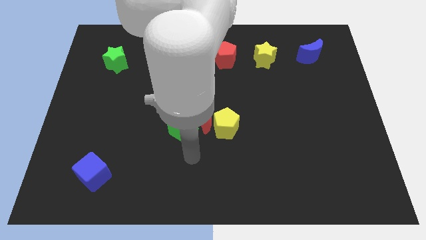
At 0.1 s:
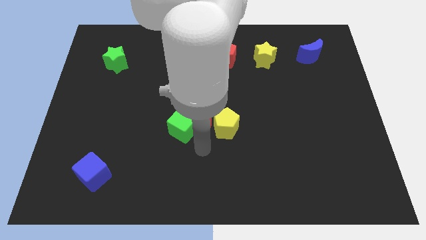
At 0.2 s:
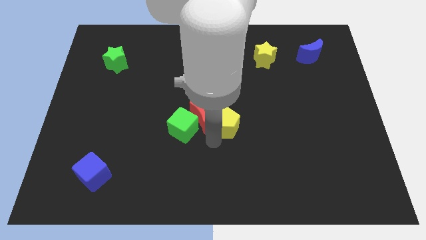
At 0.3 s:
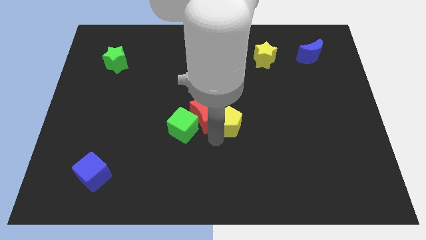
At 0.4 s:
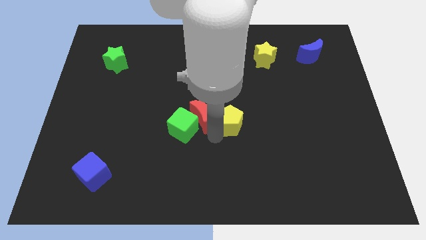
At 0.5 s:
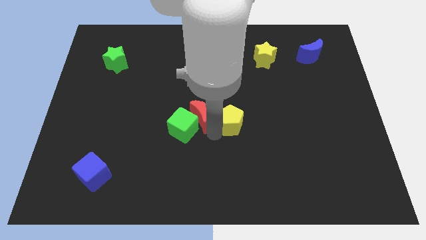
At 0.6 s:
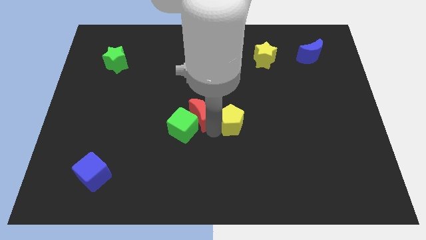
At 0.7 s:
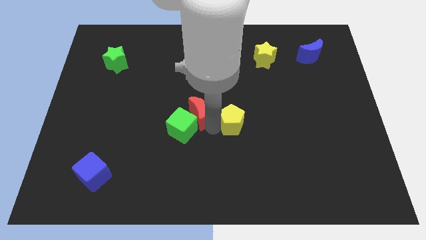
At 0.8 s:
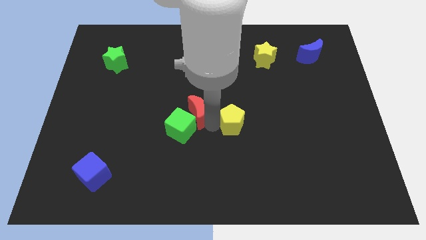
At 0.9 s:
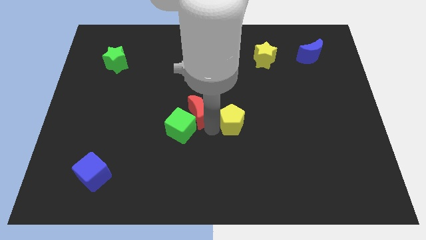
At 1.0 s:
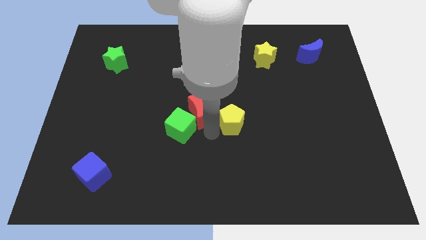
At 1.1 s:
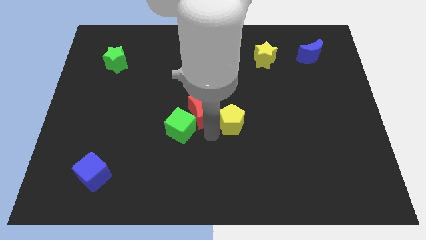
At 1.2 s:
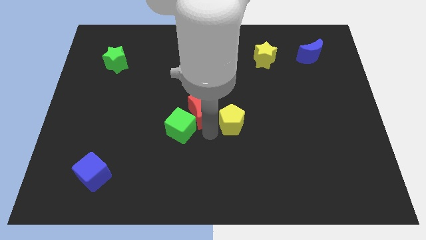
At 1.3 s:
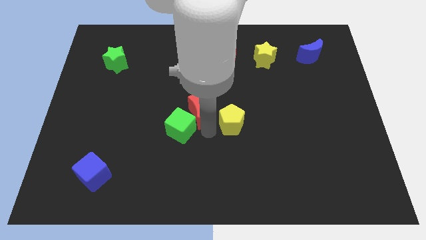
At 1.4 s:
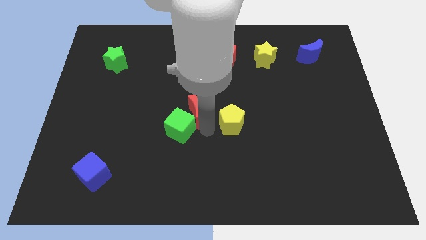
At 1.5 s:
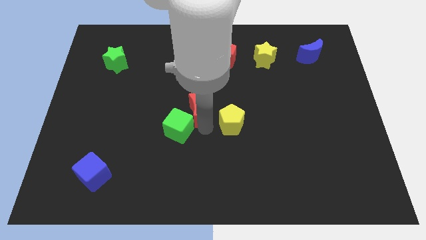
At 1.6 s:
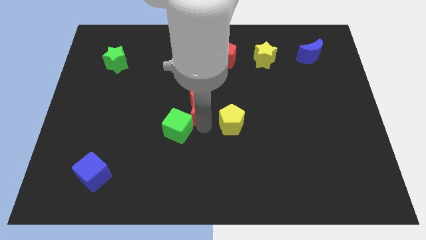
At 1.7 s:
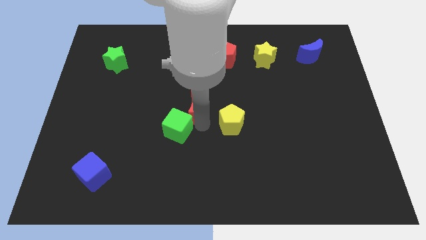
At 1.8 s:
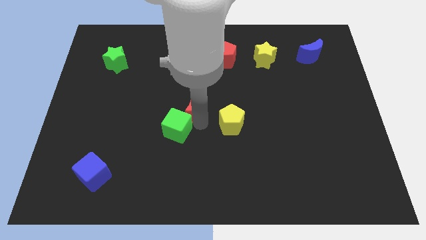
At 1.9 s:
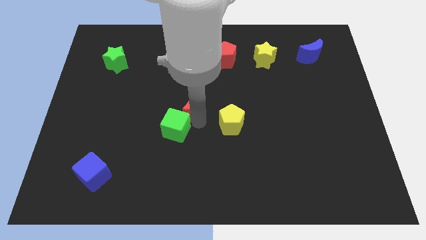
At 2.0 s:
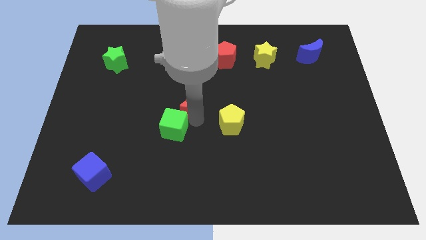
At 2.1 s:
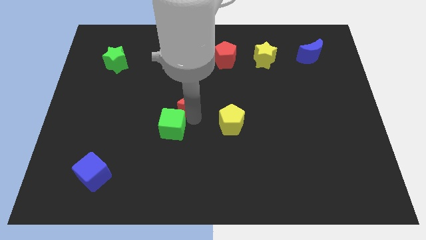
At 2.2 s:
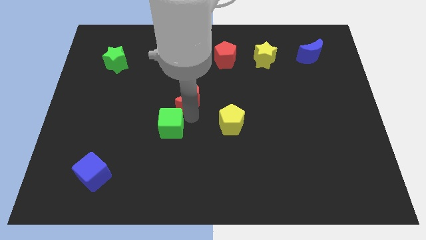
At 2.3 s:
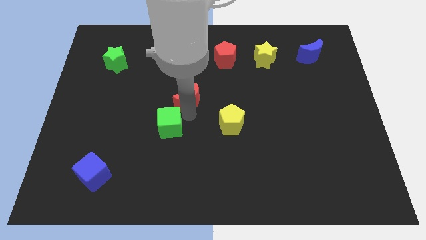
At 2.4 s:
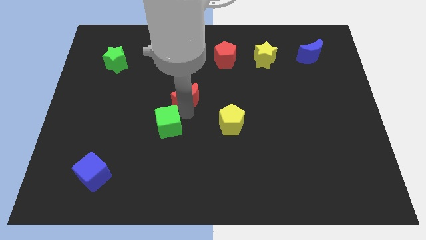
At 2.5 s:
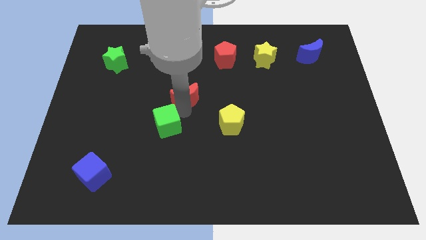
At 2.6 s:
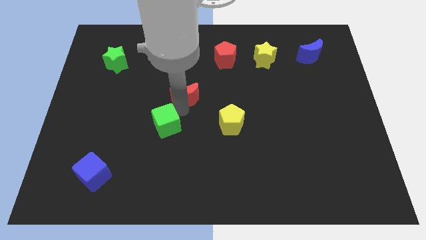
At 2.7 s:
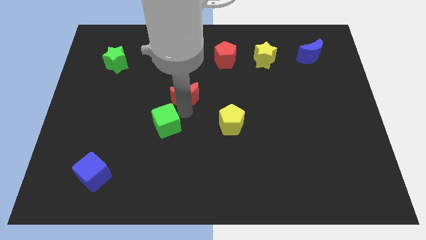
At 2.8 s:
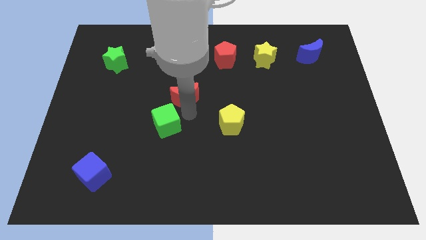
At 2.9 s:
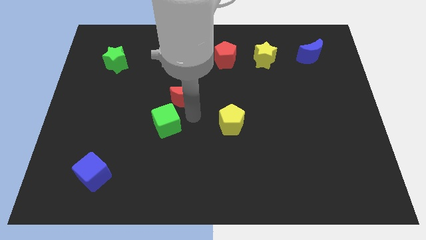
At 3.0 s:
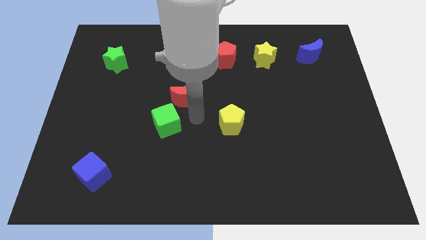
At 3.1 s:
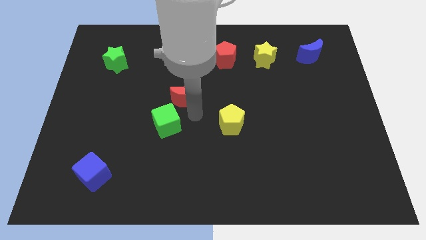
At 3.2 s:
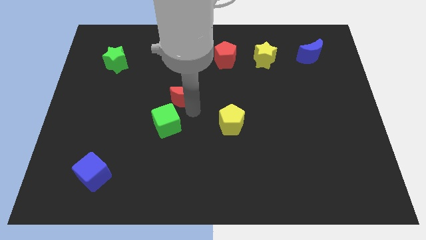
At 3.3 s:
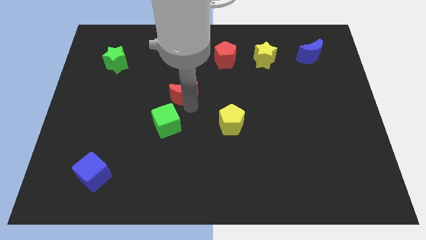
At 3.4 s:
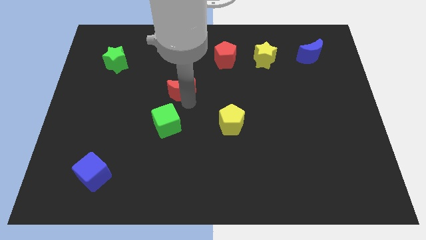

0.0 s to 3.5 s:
move the red moon away from the green cube and yellow pentagon

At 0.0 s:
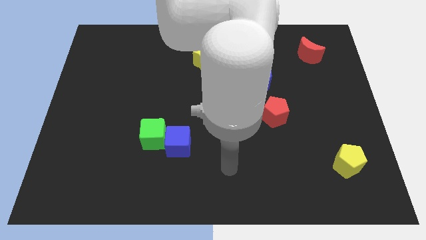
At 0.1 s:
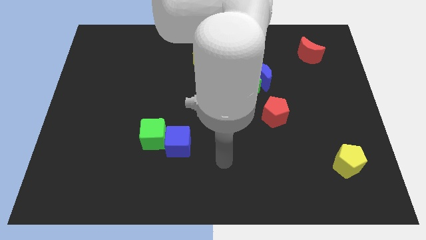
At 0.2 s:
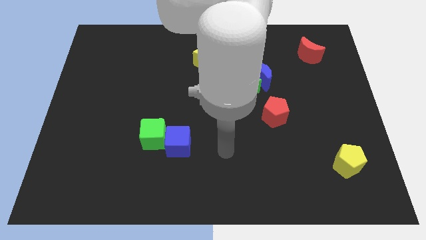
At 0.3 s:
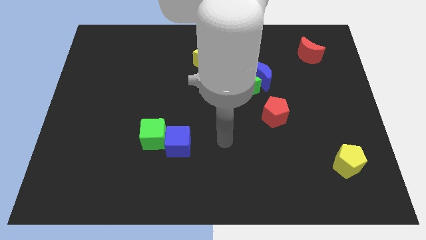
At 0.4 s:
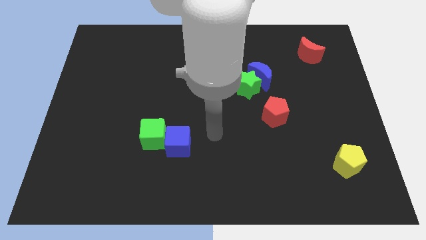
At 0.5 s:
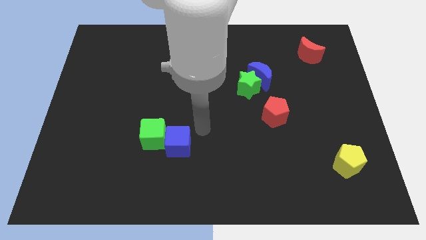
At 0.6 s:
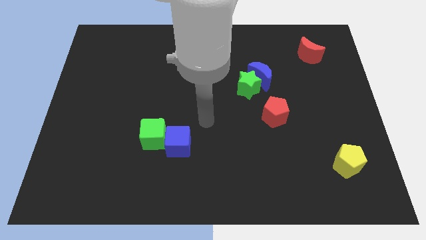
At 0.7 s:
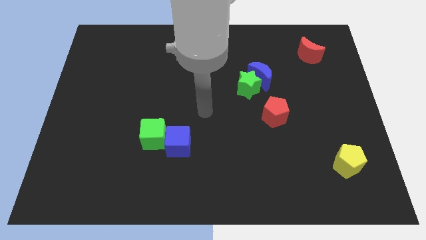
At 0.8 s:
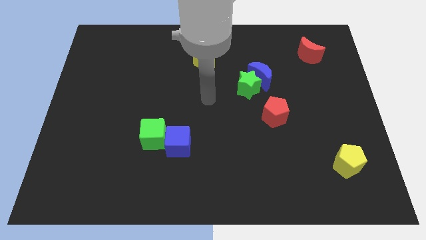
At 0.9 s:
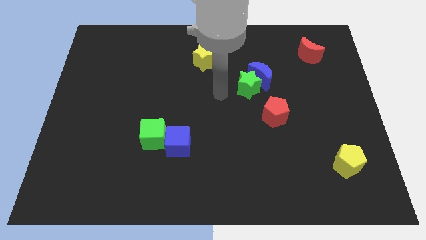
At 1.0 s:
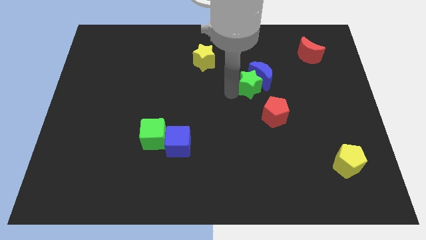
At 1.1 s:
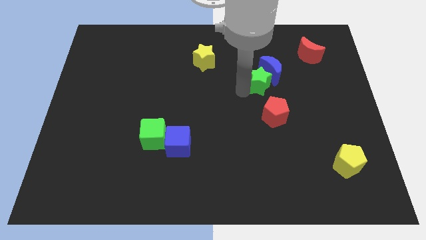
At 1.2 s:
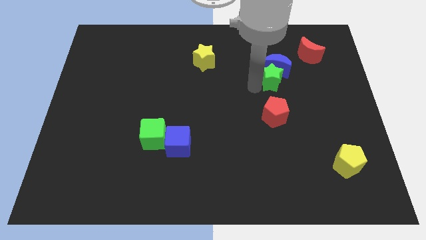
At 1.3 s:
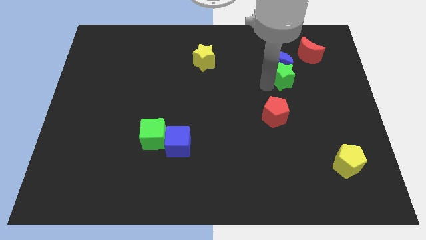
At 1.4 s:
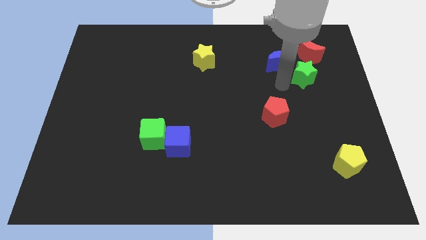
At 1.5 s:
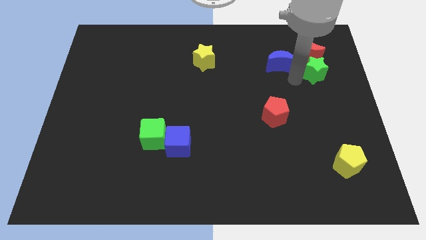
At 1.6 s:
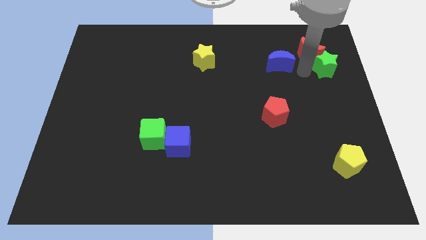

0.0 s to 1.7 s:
move the blue moon away from the green star

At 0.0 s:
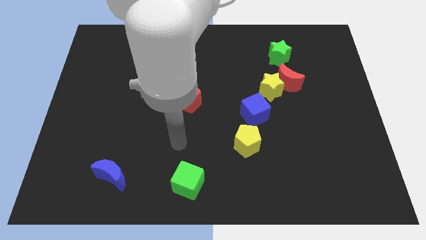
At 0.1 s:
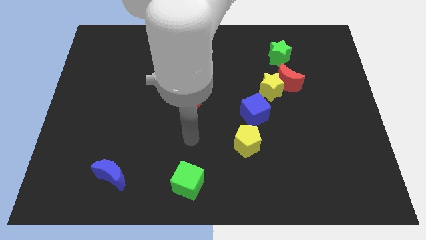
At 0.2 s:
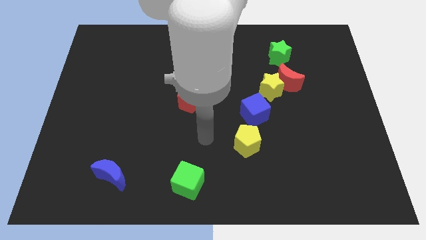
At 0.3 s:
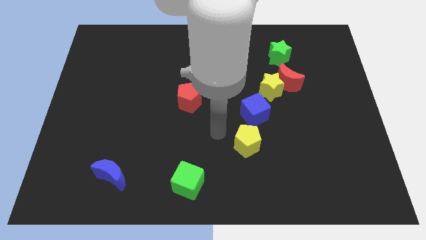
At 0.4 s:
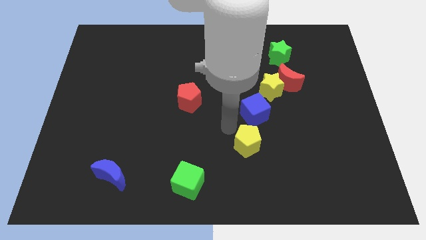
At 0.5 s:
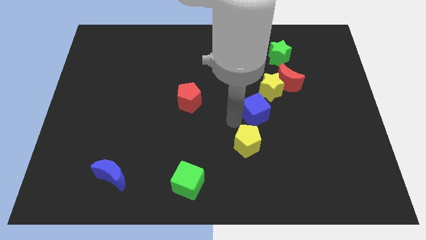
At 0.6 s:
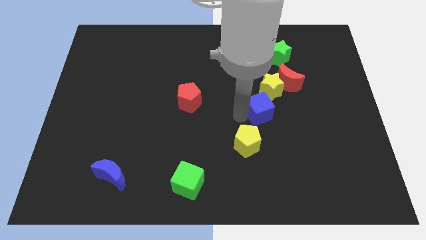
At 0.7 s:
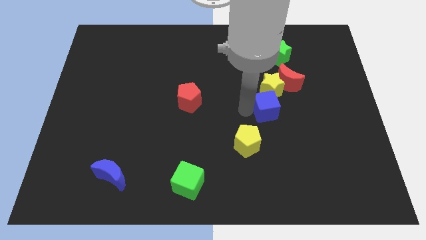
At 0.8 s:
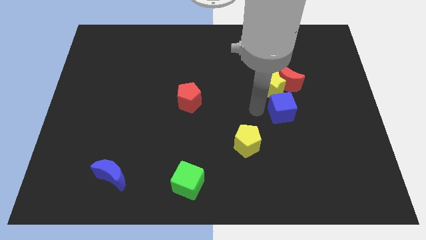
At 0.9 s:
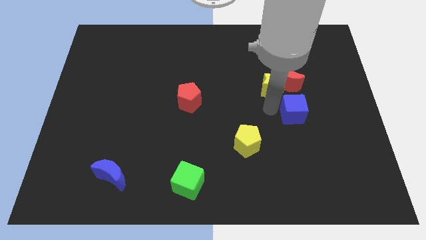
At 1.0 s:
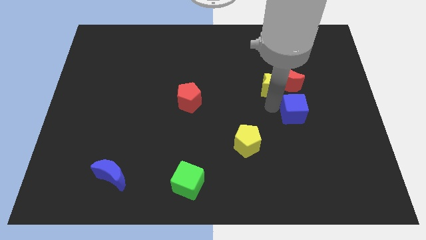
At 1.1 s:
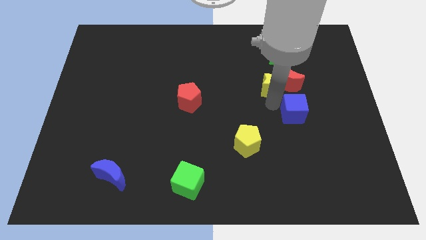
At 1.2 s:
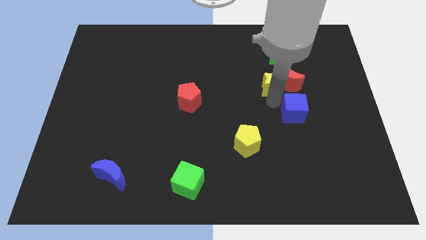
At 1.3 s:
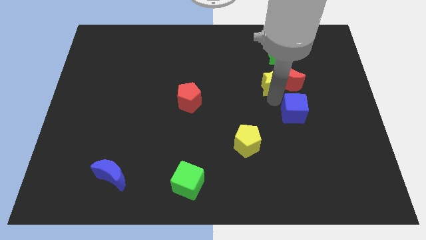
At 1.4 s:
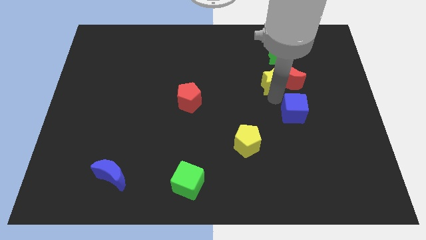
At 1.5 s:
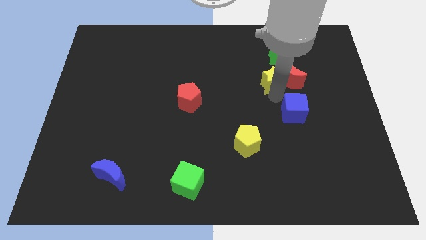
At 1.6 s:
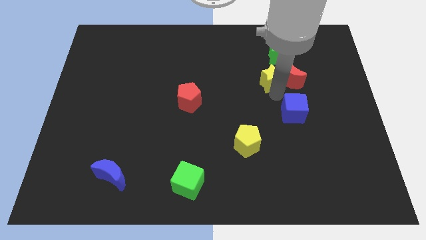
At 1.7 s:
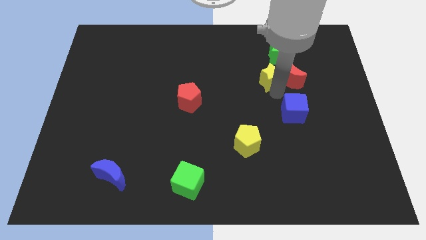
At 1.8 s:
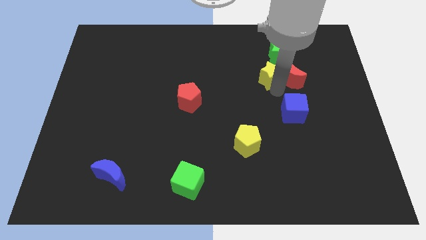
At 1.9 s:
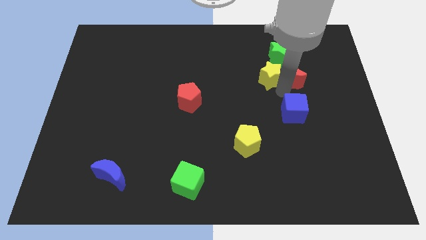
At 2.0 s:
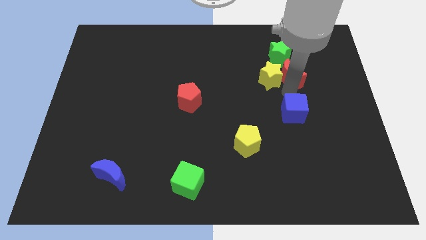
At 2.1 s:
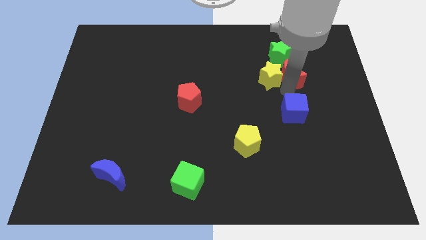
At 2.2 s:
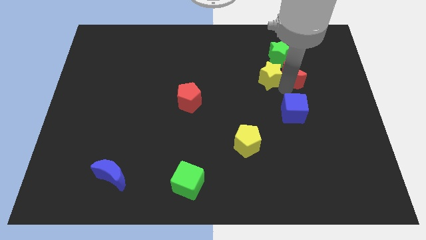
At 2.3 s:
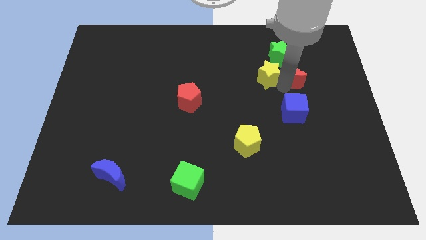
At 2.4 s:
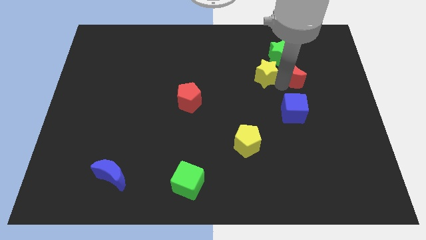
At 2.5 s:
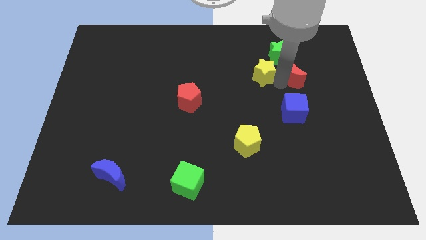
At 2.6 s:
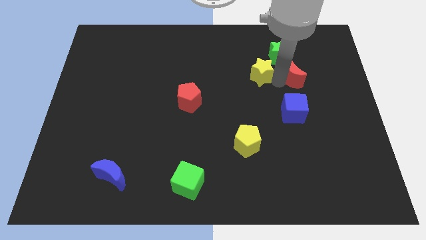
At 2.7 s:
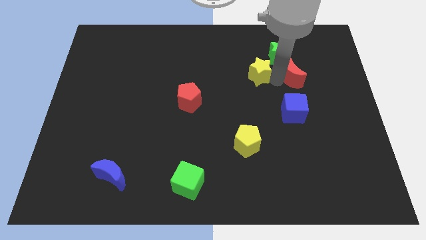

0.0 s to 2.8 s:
pull the yellow star apart from the red moon and blue cube

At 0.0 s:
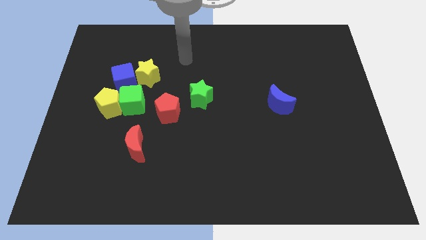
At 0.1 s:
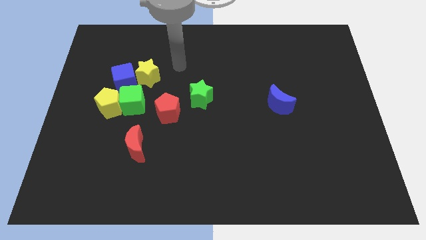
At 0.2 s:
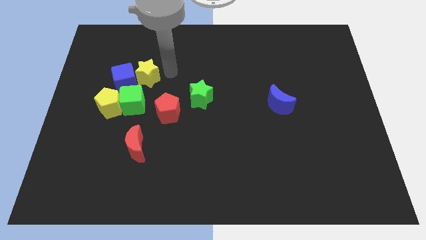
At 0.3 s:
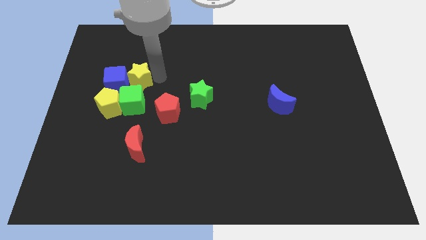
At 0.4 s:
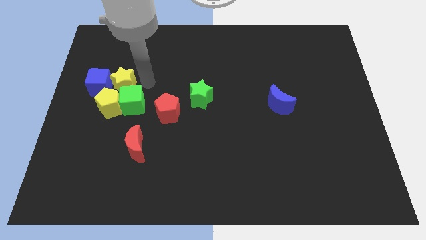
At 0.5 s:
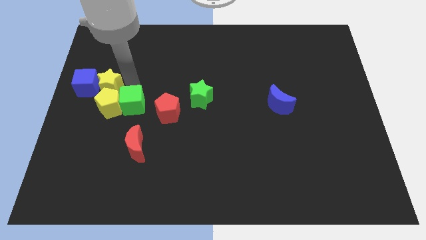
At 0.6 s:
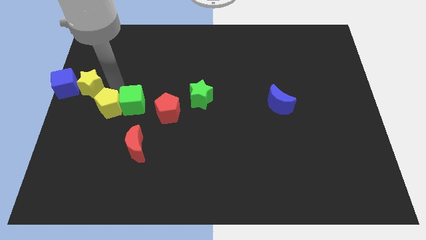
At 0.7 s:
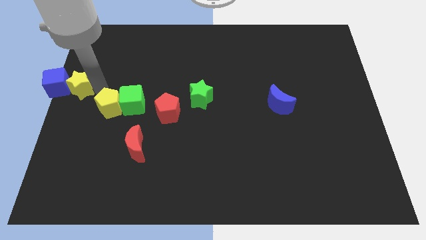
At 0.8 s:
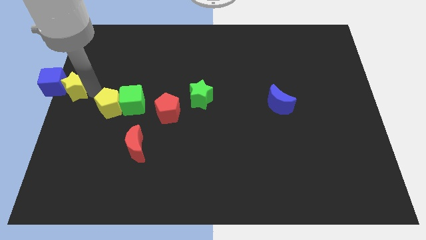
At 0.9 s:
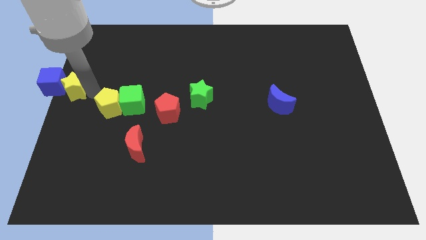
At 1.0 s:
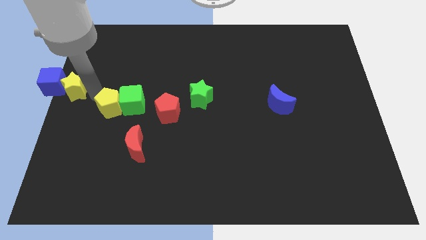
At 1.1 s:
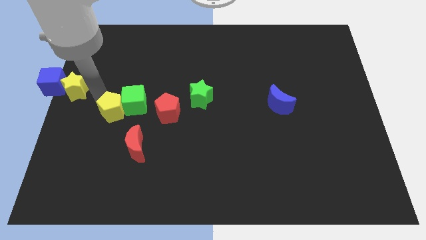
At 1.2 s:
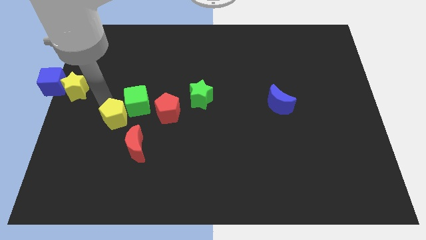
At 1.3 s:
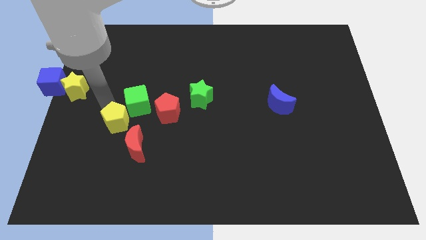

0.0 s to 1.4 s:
separate the yellow pentagon from the green cube and blue cube
